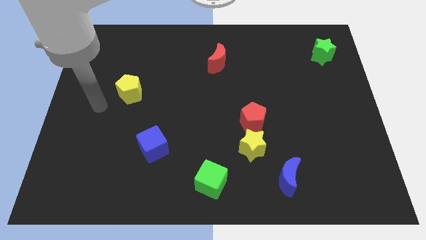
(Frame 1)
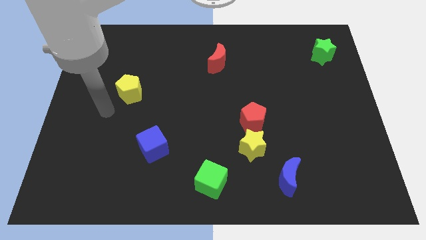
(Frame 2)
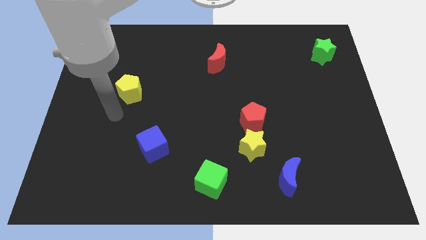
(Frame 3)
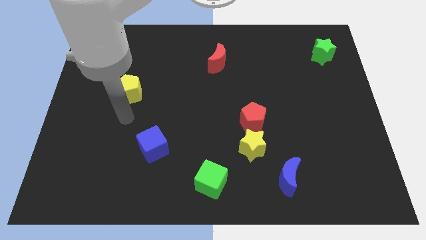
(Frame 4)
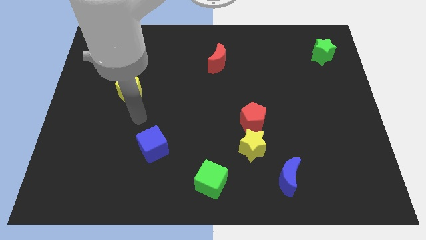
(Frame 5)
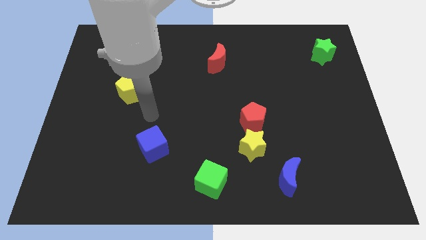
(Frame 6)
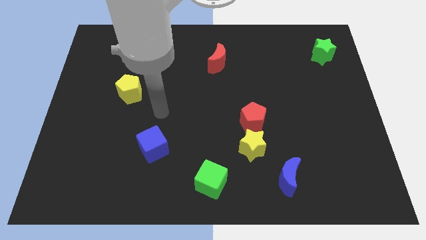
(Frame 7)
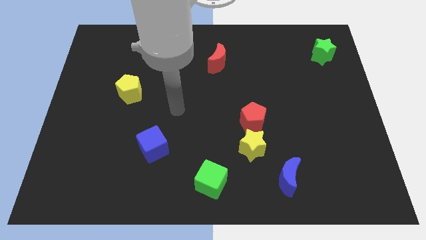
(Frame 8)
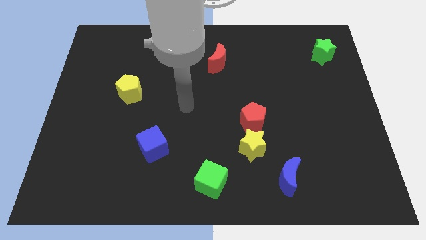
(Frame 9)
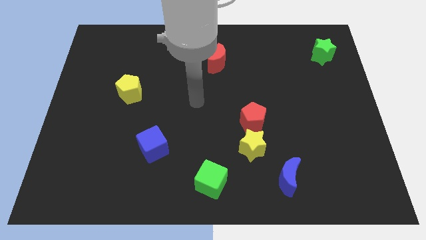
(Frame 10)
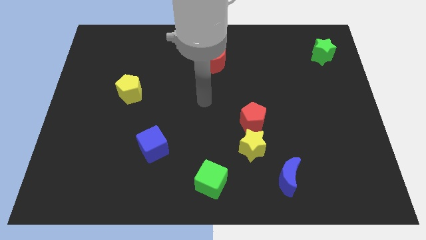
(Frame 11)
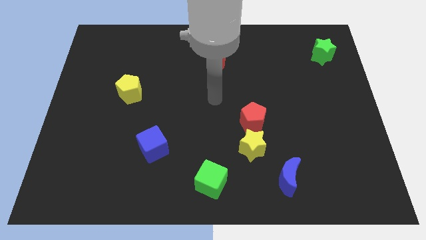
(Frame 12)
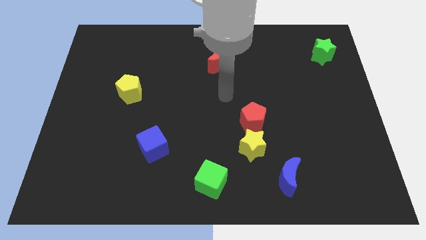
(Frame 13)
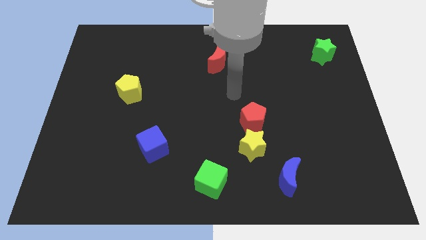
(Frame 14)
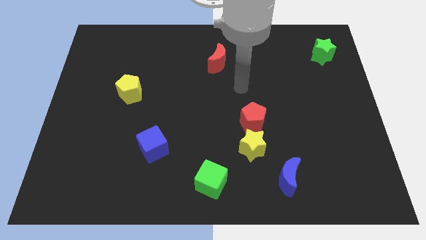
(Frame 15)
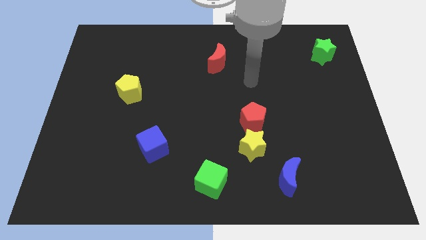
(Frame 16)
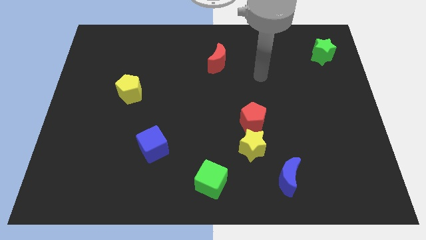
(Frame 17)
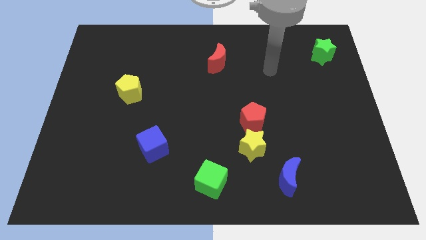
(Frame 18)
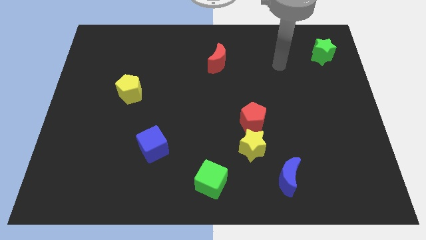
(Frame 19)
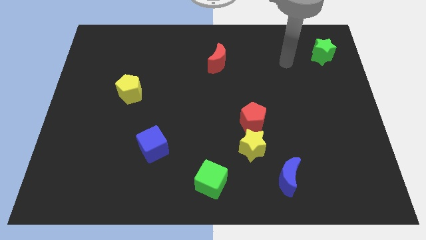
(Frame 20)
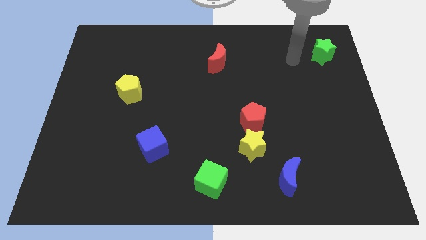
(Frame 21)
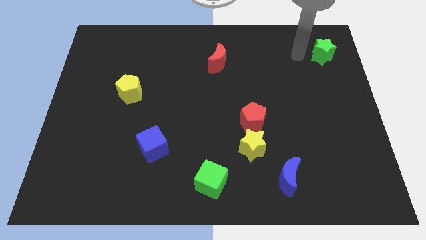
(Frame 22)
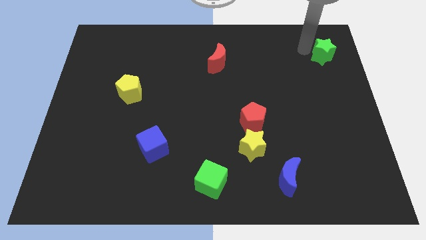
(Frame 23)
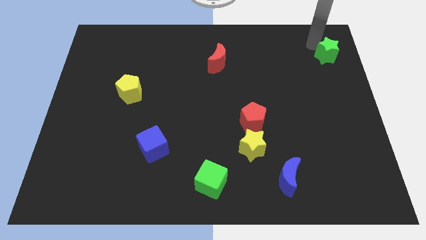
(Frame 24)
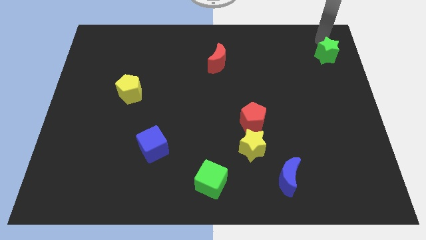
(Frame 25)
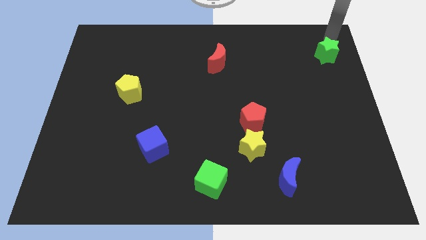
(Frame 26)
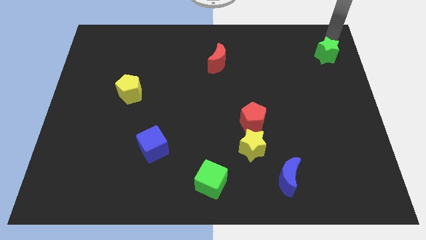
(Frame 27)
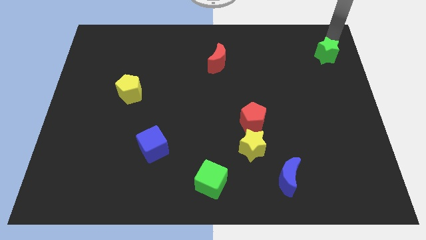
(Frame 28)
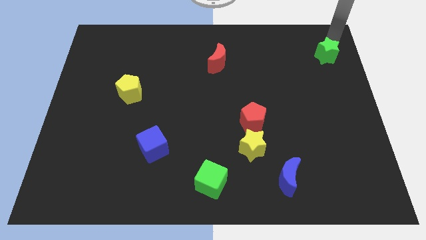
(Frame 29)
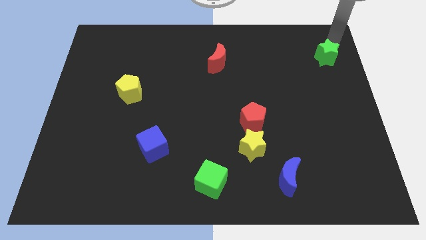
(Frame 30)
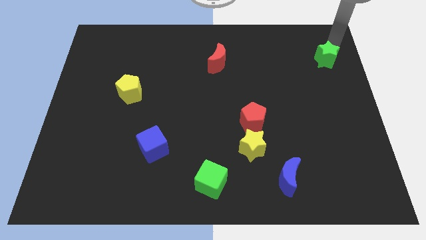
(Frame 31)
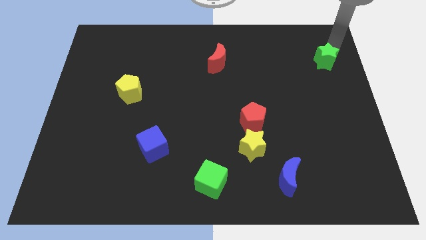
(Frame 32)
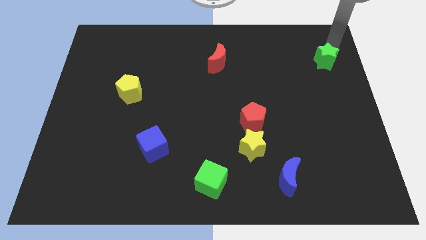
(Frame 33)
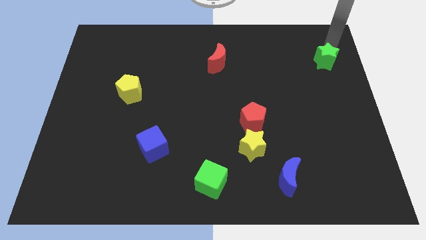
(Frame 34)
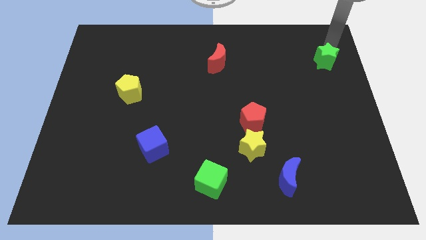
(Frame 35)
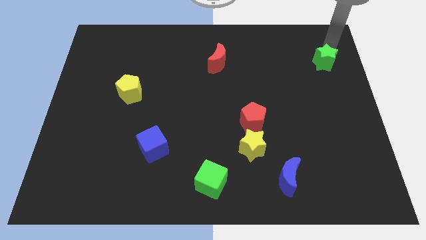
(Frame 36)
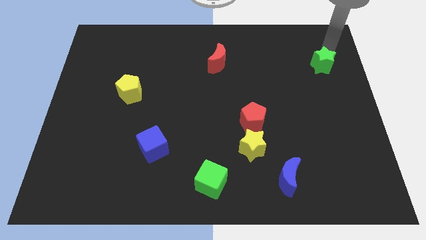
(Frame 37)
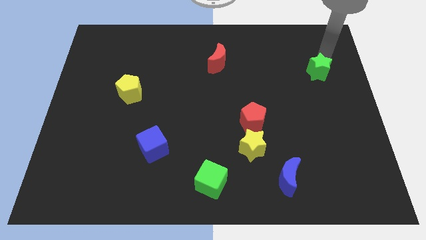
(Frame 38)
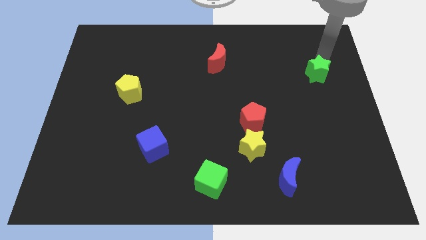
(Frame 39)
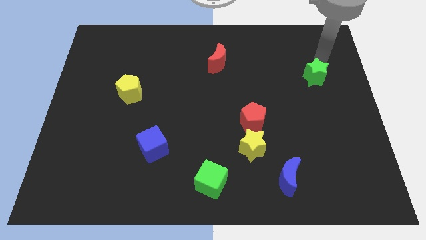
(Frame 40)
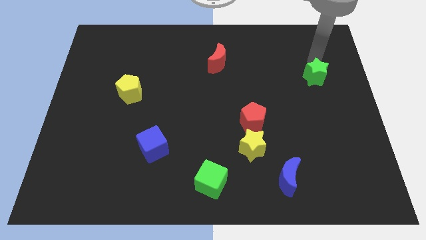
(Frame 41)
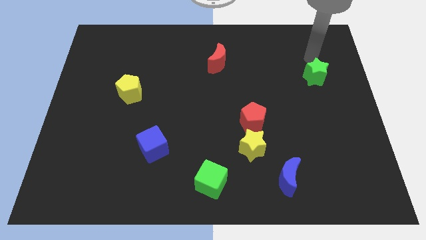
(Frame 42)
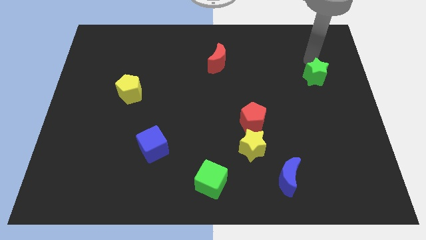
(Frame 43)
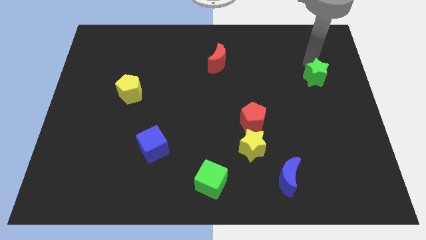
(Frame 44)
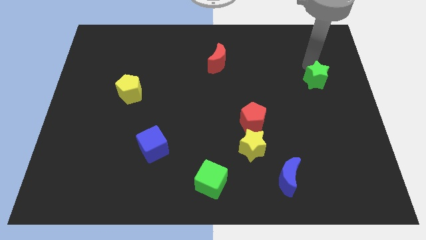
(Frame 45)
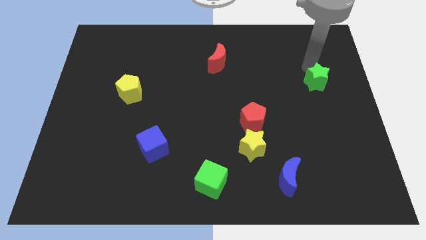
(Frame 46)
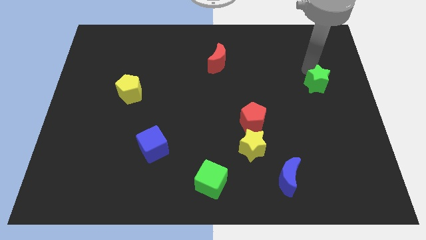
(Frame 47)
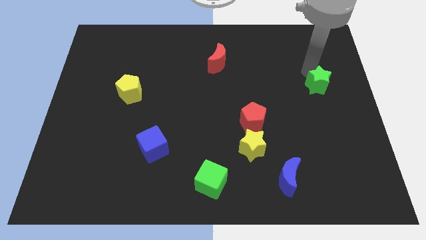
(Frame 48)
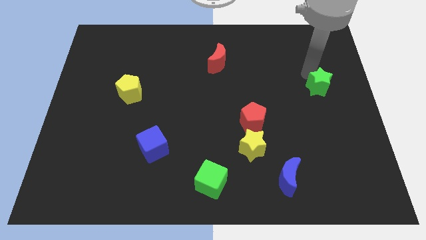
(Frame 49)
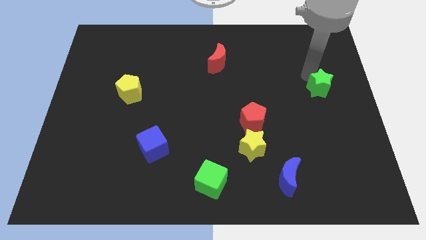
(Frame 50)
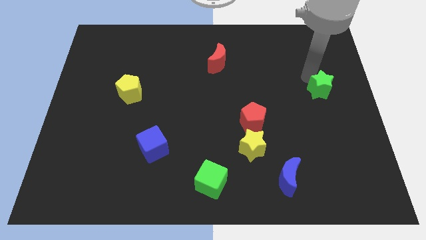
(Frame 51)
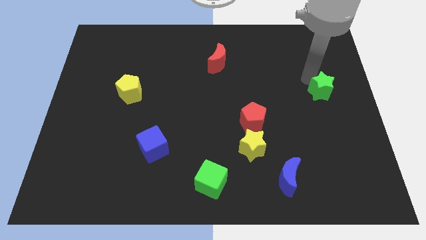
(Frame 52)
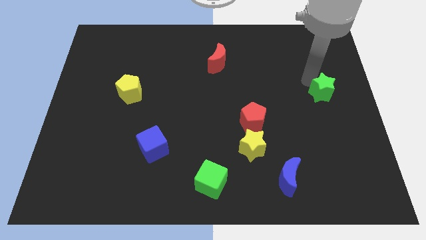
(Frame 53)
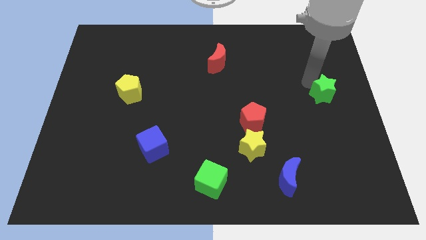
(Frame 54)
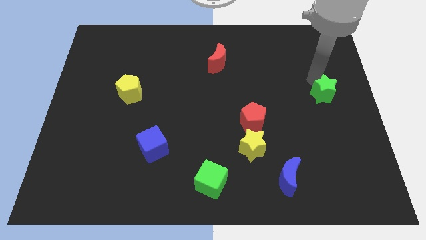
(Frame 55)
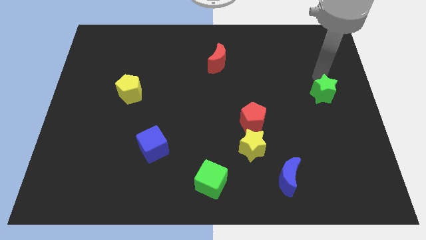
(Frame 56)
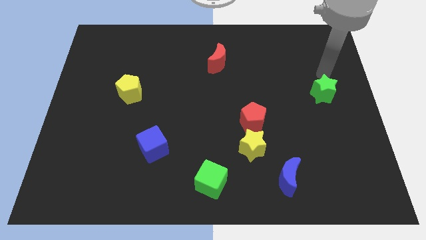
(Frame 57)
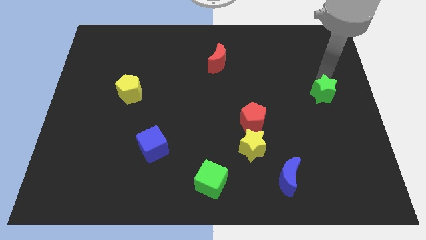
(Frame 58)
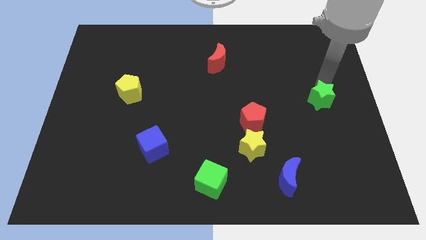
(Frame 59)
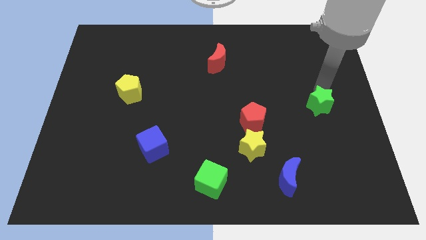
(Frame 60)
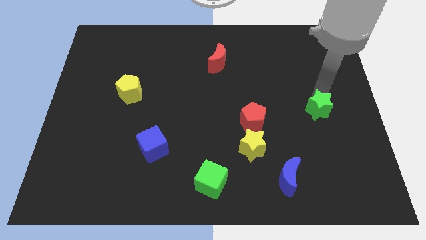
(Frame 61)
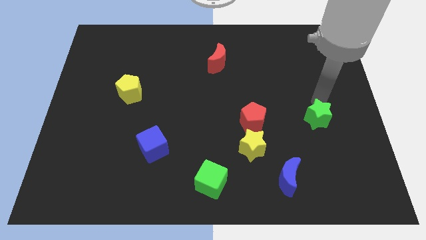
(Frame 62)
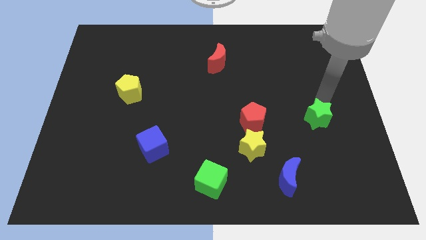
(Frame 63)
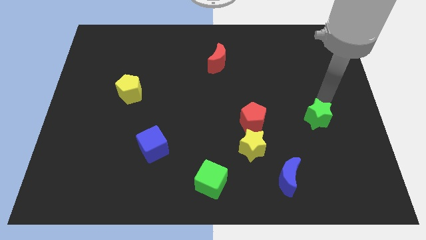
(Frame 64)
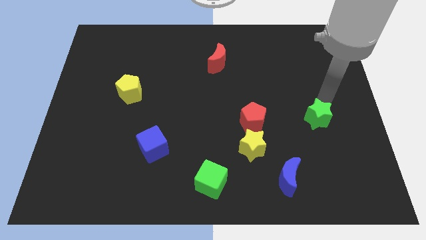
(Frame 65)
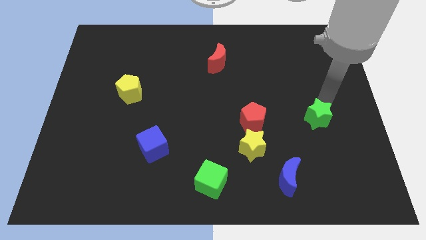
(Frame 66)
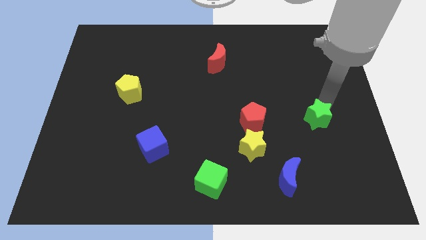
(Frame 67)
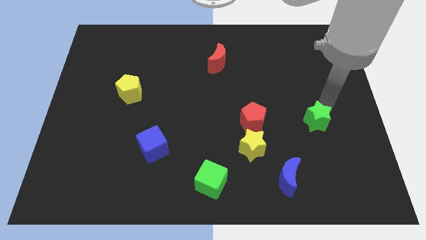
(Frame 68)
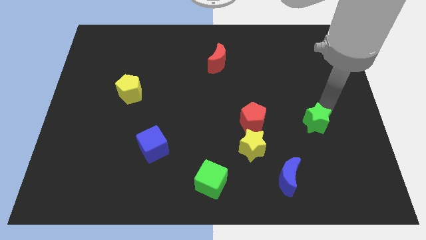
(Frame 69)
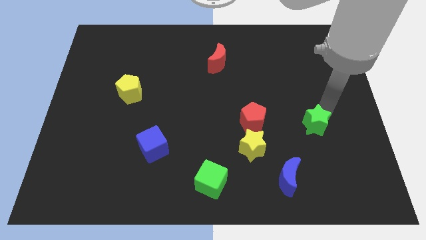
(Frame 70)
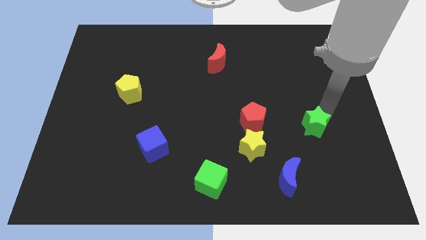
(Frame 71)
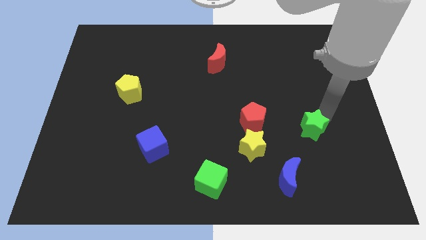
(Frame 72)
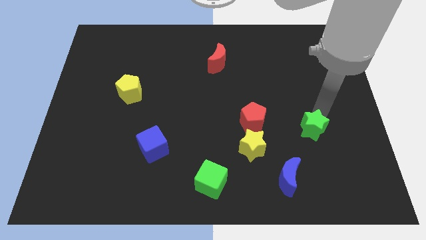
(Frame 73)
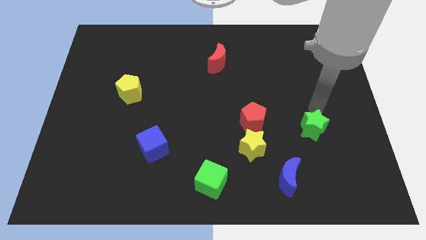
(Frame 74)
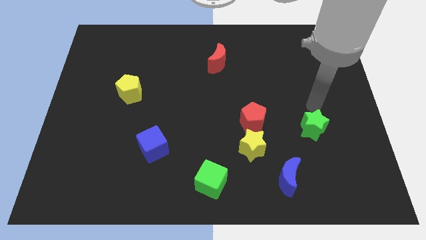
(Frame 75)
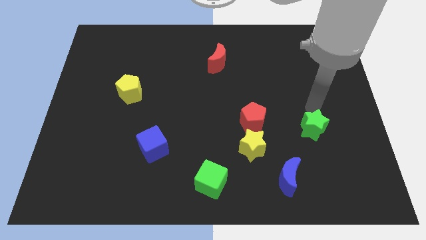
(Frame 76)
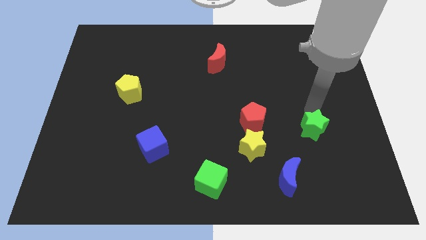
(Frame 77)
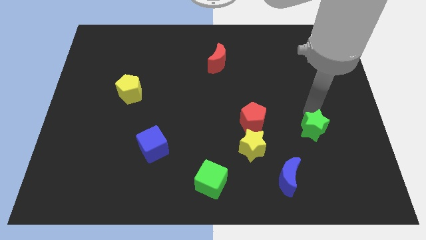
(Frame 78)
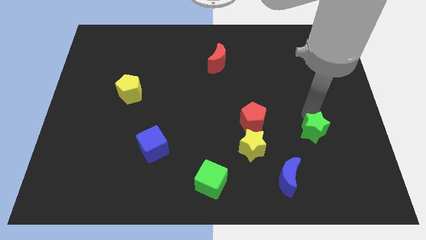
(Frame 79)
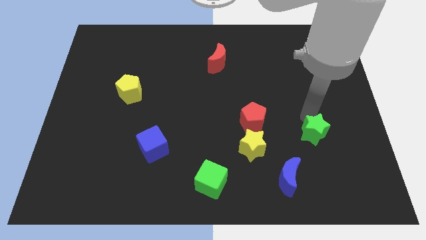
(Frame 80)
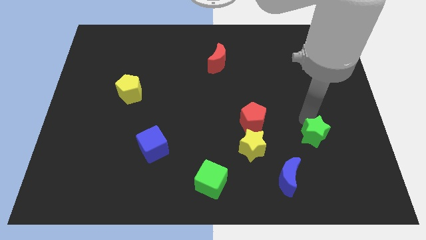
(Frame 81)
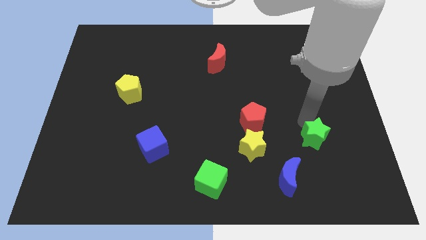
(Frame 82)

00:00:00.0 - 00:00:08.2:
slide the green star diagonally up and to the right of the blue moon
